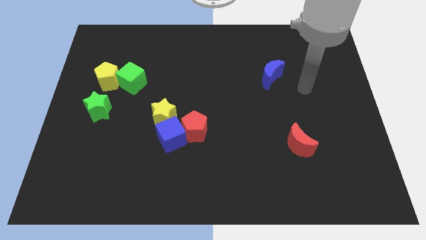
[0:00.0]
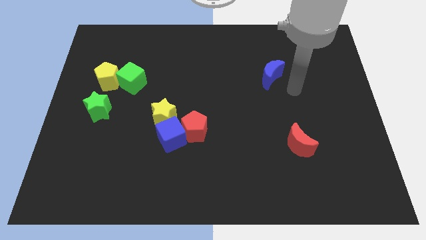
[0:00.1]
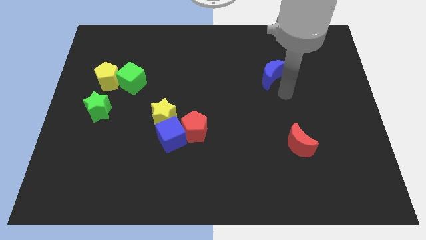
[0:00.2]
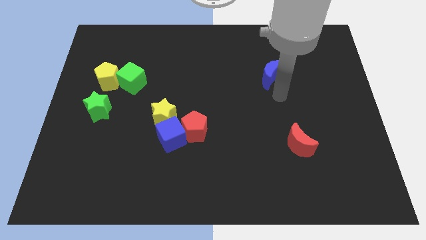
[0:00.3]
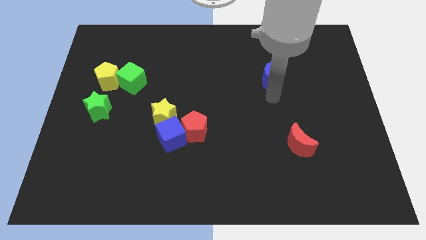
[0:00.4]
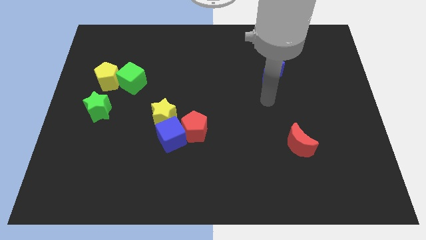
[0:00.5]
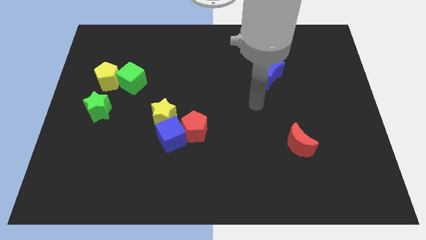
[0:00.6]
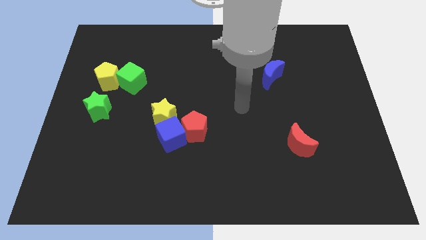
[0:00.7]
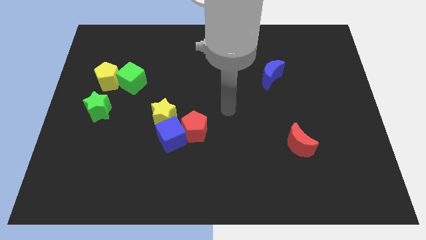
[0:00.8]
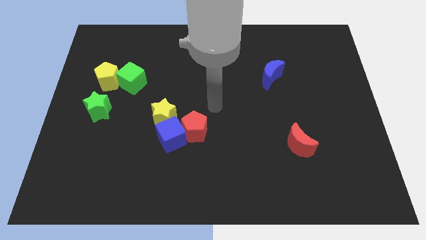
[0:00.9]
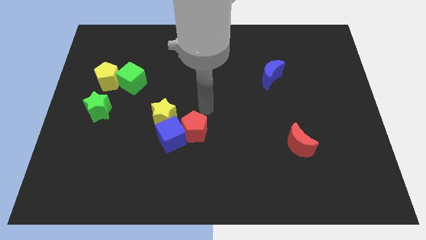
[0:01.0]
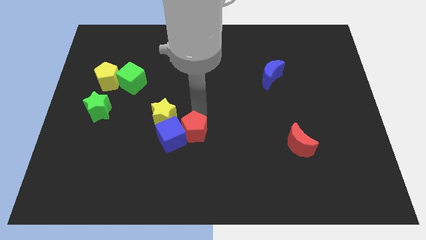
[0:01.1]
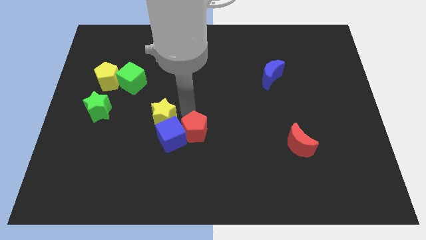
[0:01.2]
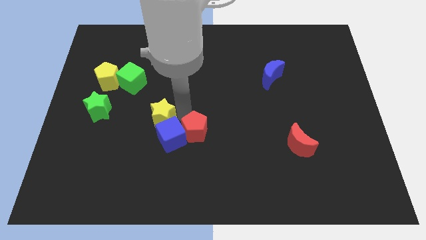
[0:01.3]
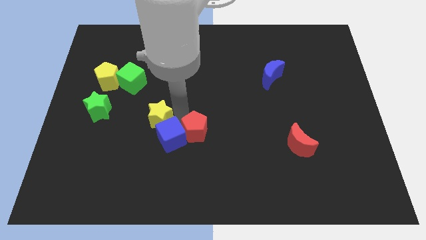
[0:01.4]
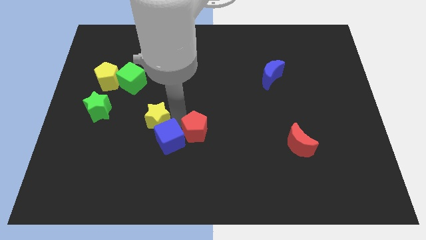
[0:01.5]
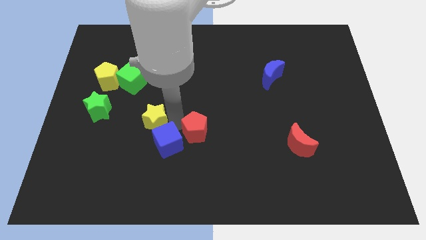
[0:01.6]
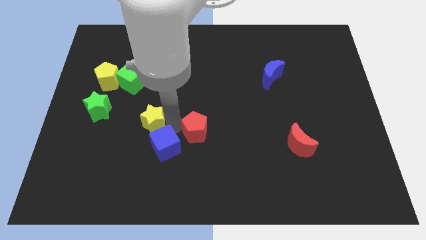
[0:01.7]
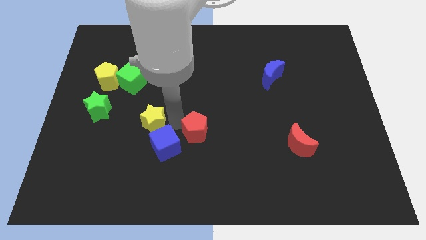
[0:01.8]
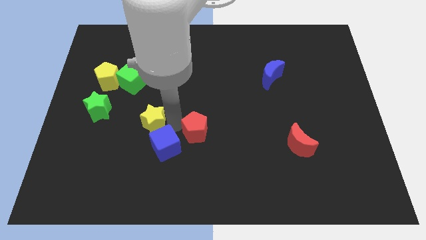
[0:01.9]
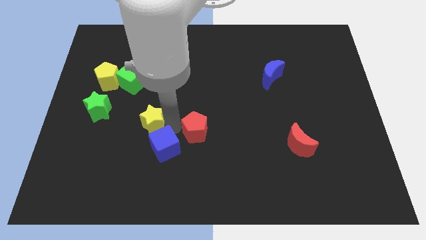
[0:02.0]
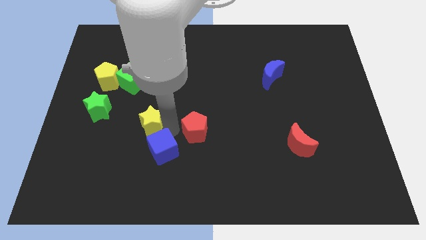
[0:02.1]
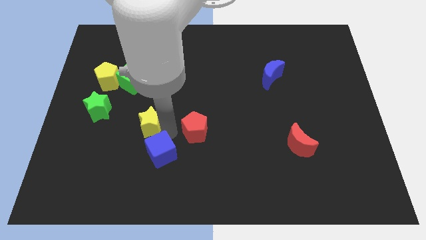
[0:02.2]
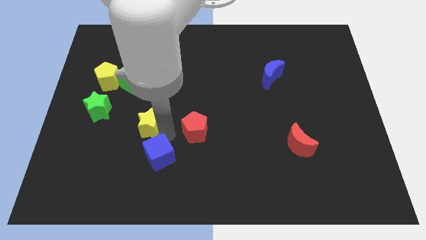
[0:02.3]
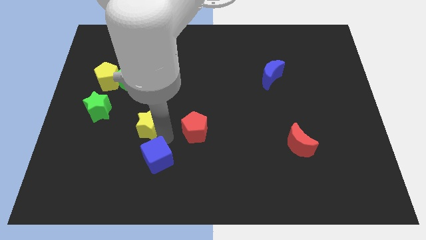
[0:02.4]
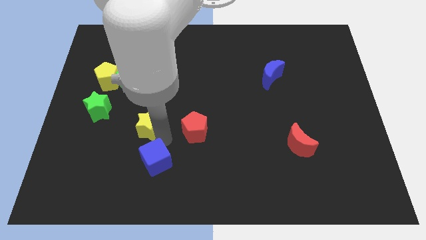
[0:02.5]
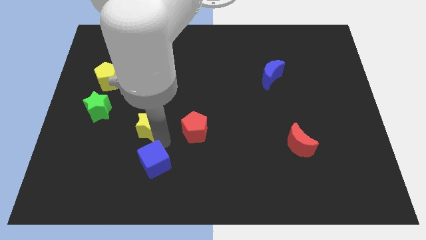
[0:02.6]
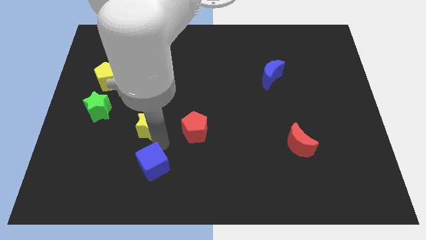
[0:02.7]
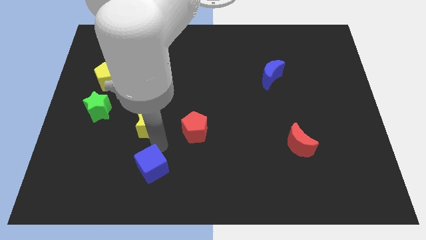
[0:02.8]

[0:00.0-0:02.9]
pull the blue cube apart from the red pentagon and yellow star

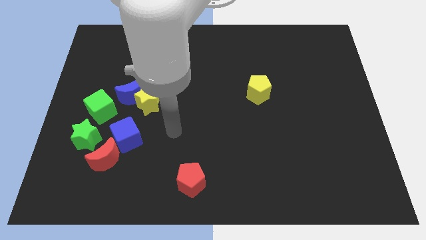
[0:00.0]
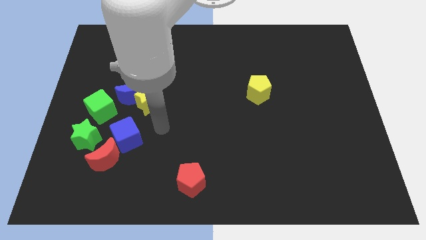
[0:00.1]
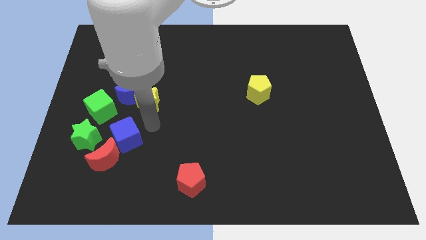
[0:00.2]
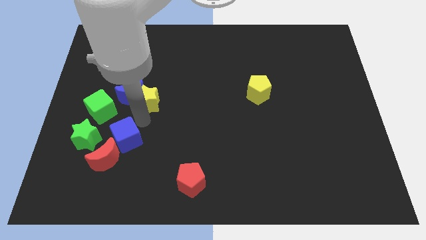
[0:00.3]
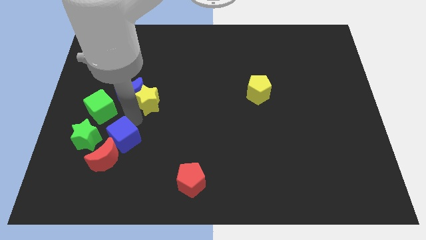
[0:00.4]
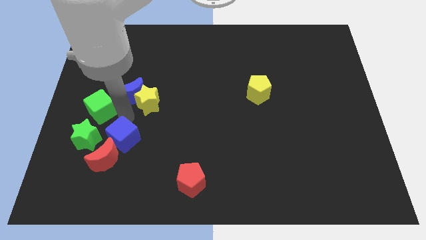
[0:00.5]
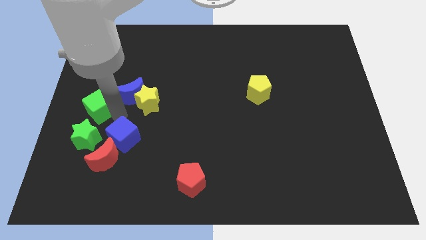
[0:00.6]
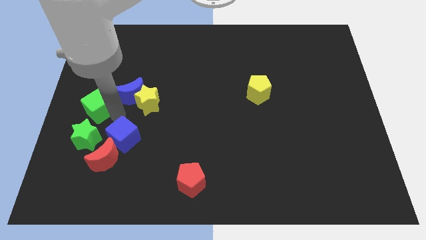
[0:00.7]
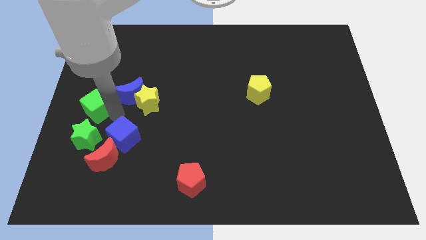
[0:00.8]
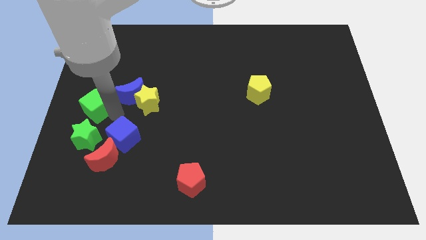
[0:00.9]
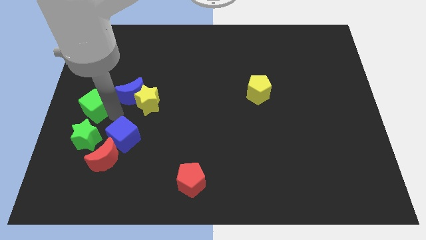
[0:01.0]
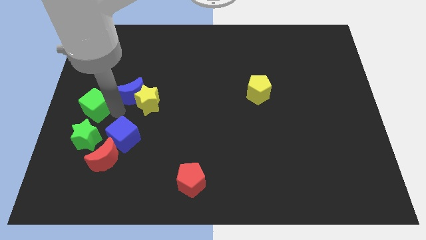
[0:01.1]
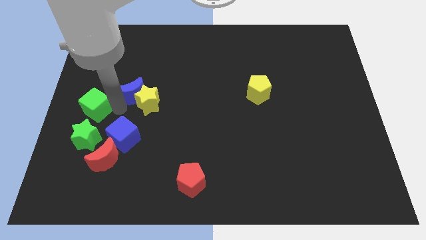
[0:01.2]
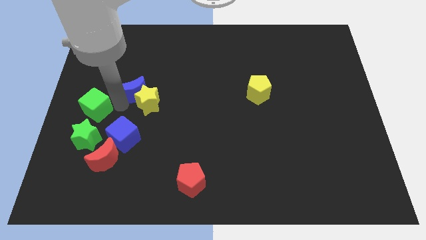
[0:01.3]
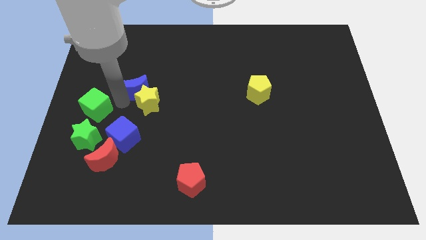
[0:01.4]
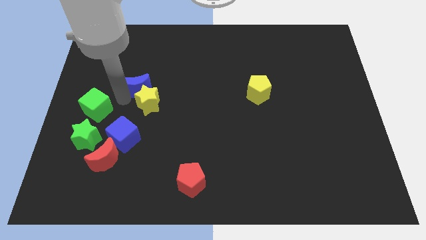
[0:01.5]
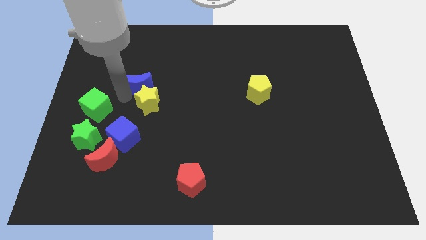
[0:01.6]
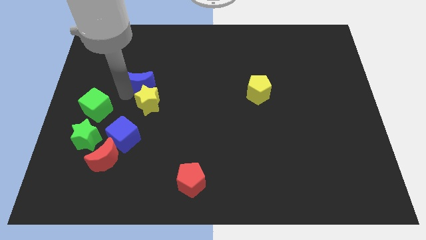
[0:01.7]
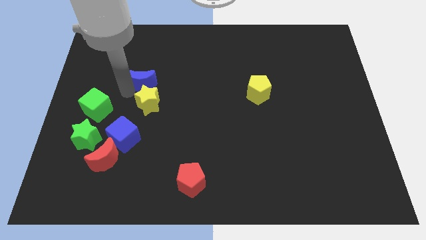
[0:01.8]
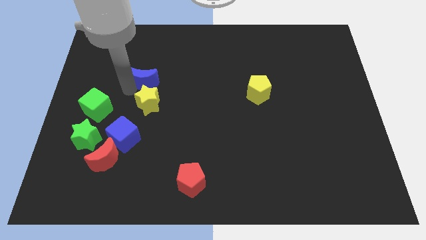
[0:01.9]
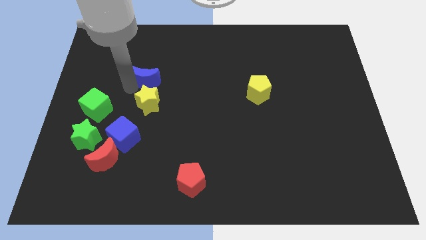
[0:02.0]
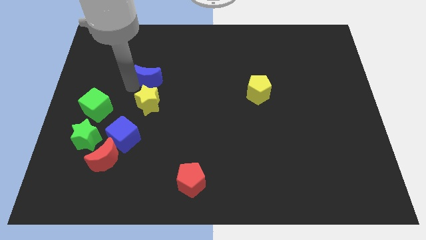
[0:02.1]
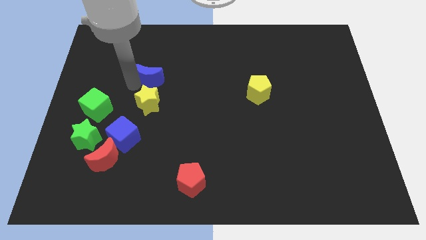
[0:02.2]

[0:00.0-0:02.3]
pull the blue moon apart from the yellow star and green cube

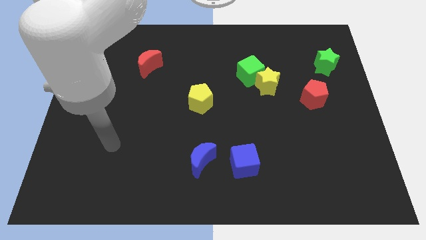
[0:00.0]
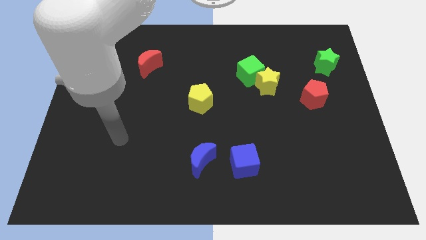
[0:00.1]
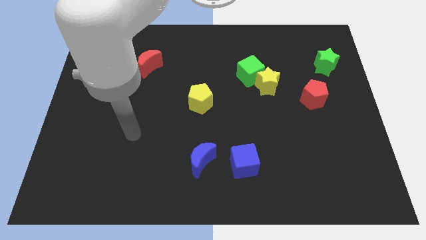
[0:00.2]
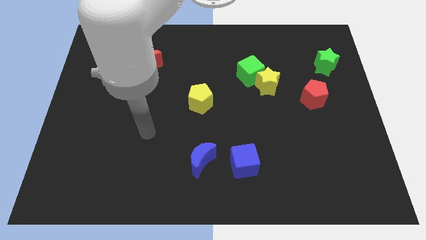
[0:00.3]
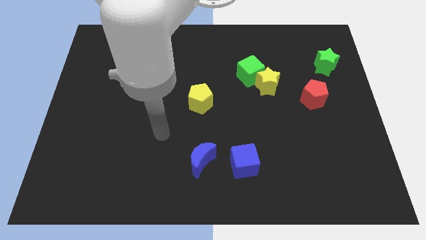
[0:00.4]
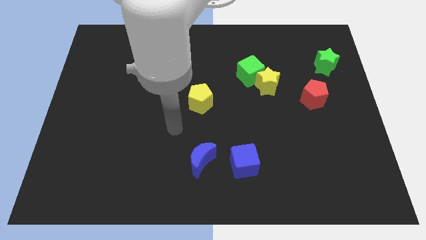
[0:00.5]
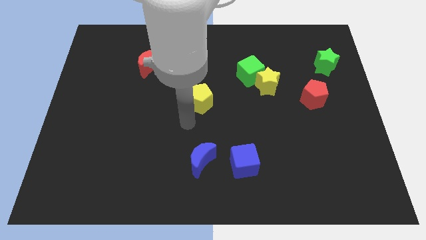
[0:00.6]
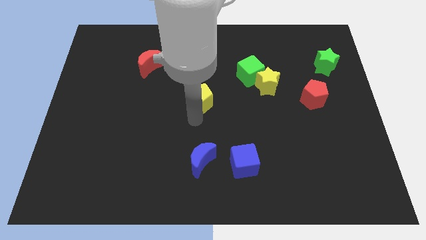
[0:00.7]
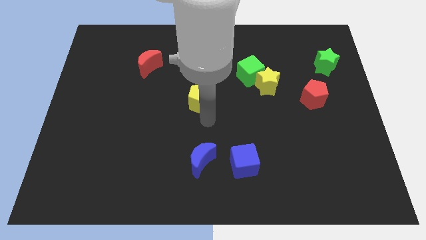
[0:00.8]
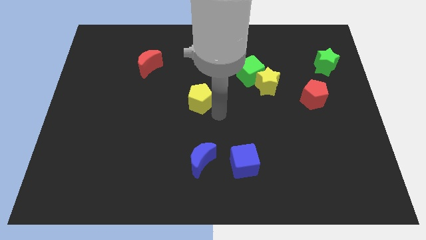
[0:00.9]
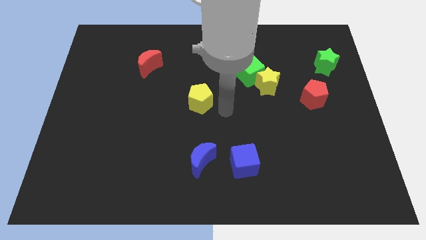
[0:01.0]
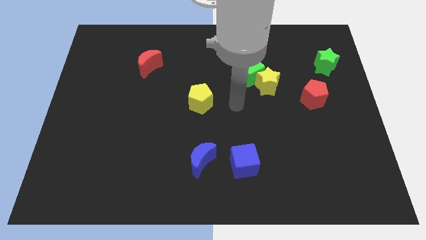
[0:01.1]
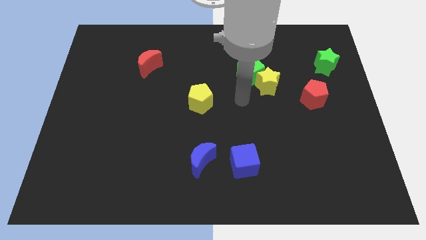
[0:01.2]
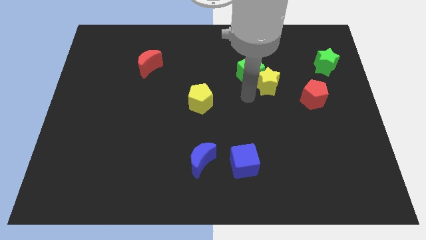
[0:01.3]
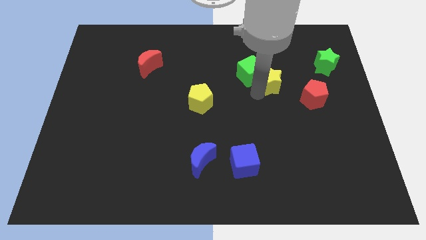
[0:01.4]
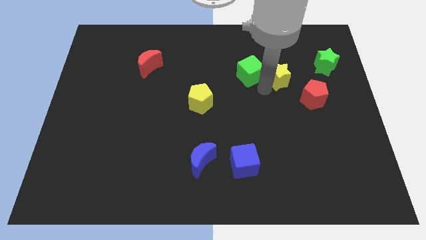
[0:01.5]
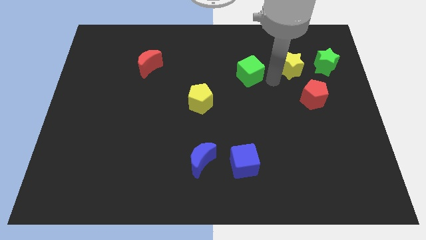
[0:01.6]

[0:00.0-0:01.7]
move the green cube away from the yellow star

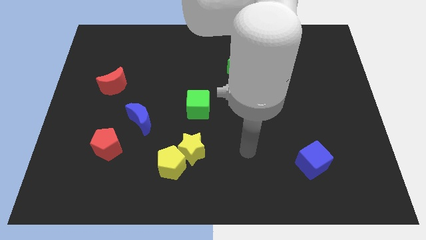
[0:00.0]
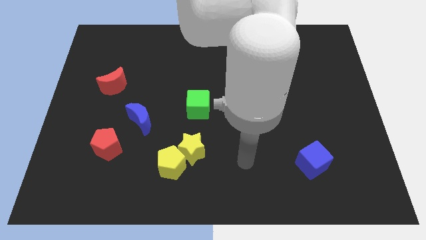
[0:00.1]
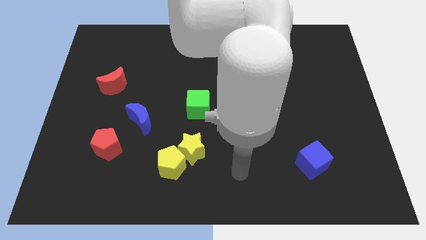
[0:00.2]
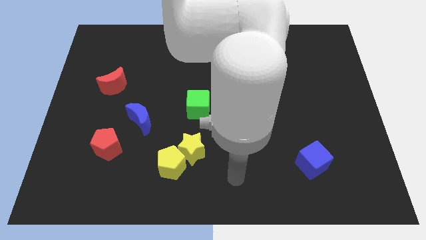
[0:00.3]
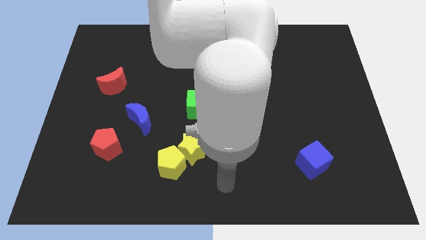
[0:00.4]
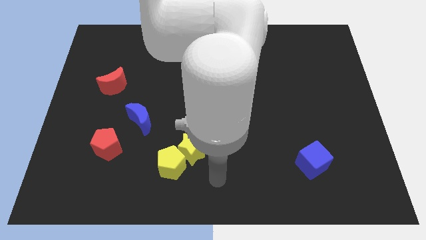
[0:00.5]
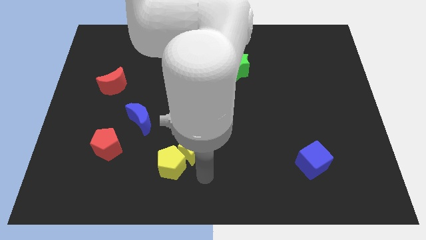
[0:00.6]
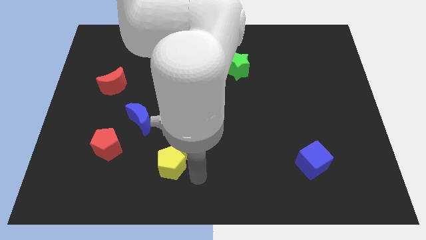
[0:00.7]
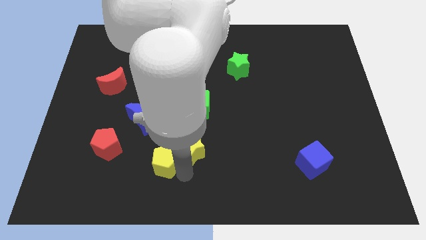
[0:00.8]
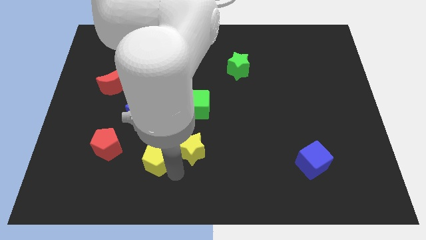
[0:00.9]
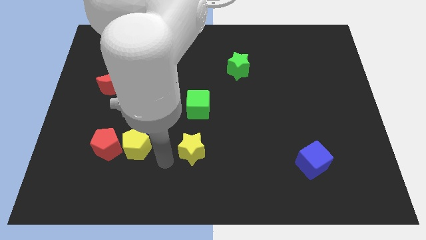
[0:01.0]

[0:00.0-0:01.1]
pull the yellow star apart from the yellow pentagon

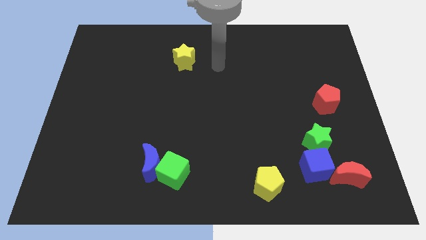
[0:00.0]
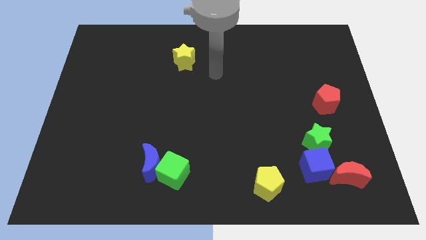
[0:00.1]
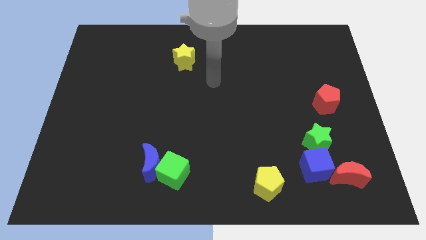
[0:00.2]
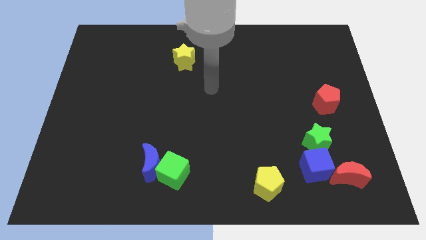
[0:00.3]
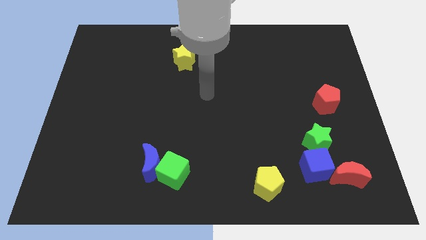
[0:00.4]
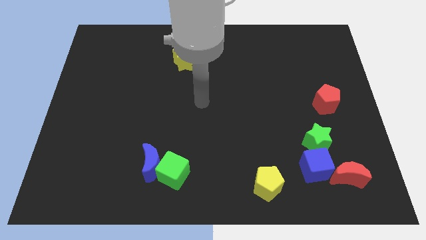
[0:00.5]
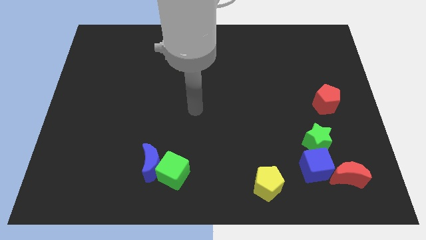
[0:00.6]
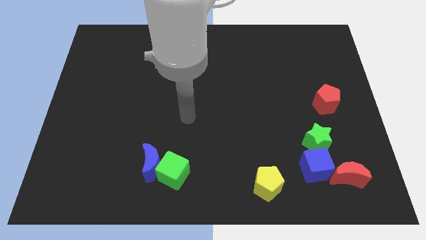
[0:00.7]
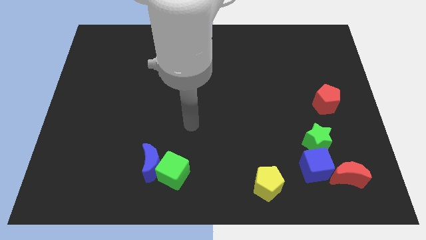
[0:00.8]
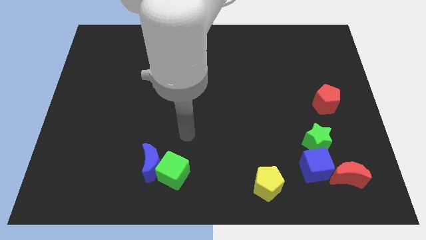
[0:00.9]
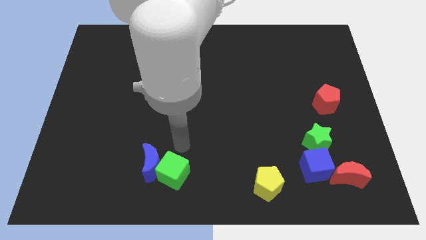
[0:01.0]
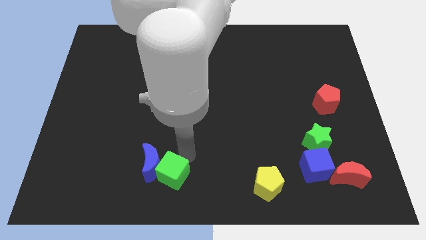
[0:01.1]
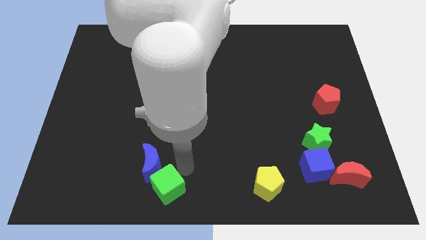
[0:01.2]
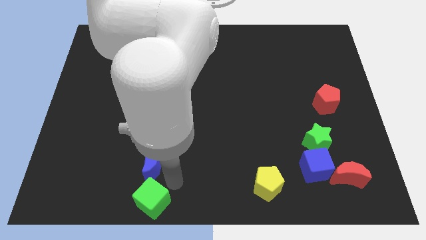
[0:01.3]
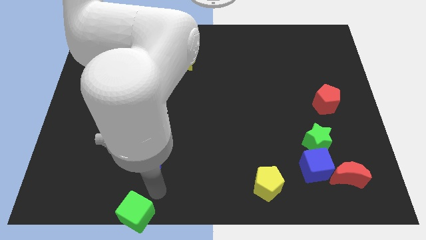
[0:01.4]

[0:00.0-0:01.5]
pull the blue moon apart from the green cube
